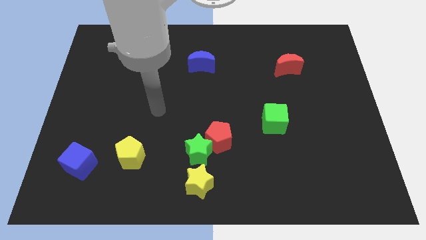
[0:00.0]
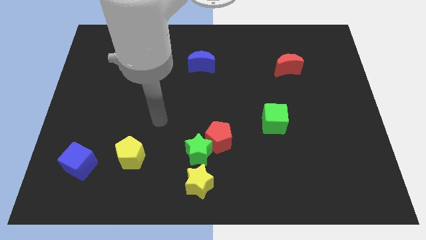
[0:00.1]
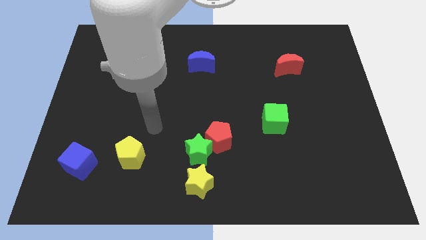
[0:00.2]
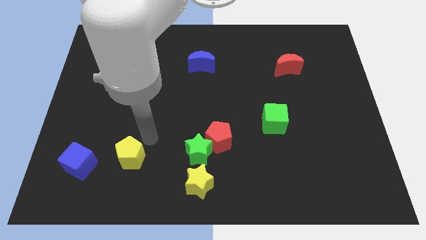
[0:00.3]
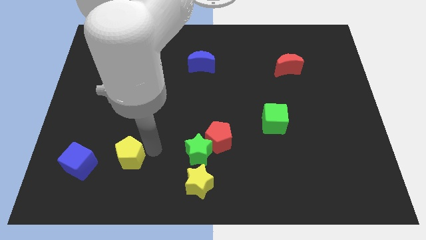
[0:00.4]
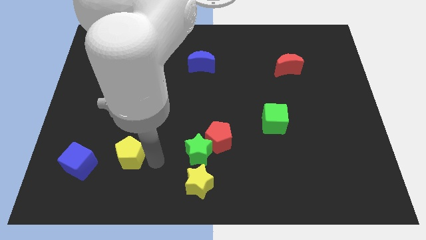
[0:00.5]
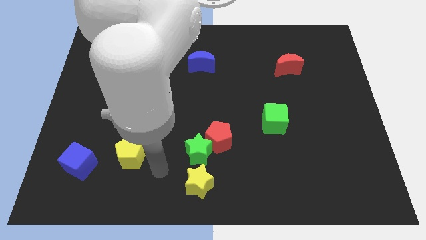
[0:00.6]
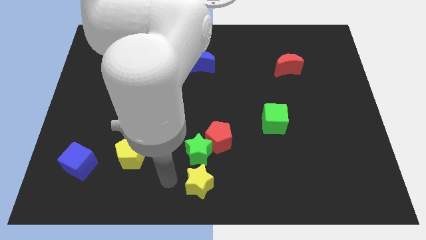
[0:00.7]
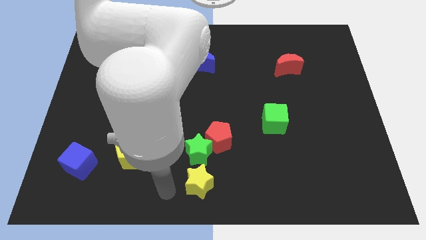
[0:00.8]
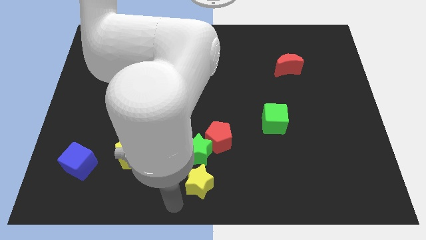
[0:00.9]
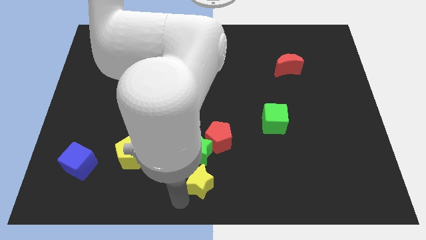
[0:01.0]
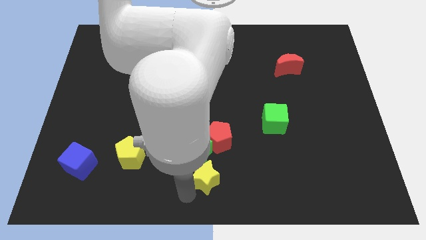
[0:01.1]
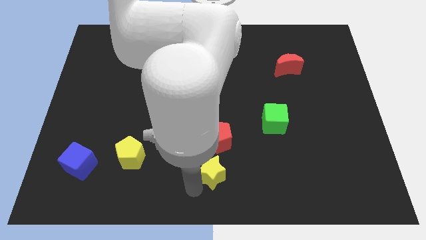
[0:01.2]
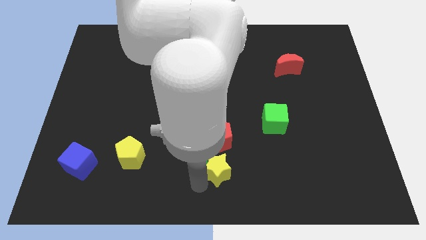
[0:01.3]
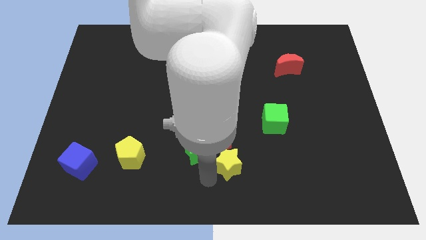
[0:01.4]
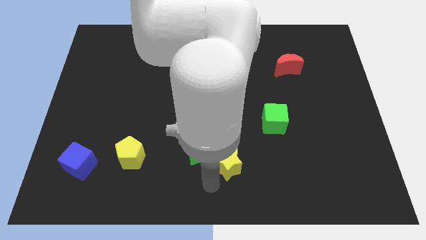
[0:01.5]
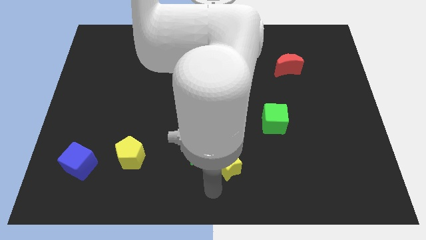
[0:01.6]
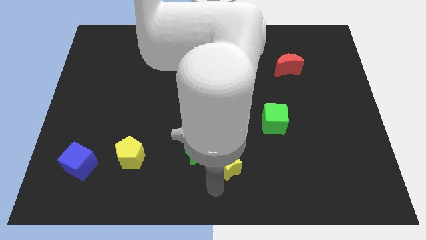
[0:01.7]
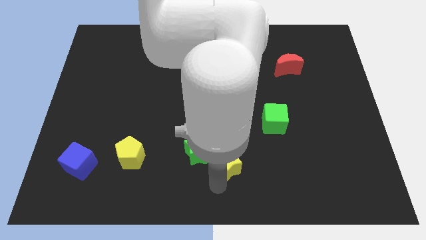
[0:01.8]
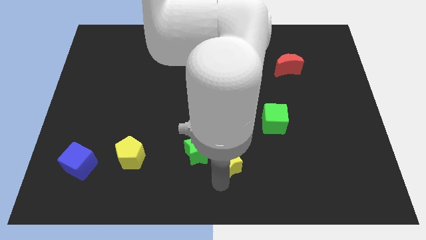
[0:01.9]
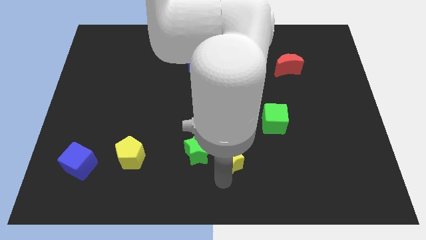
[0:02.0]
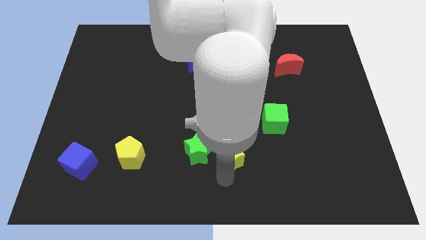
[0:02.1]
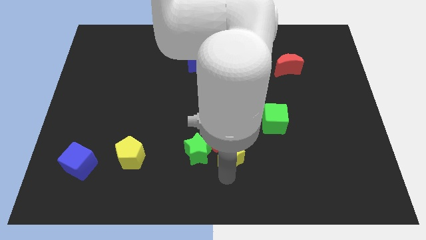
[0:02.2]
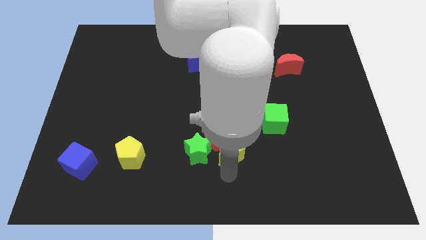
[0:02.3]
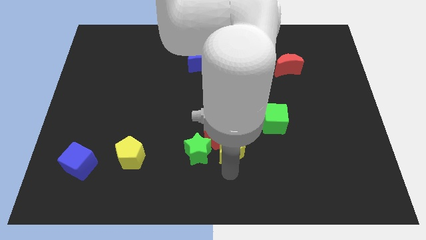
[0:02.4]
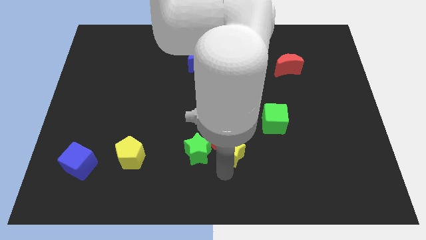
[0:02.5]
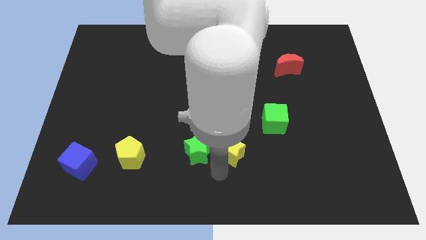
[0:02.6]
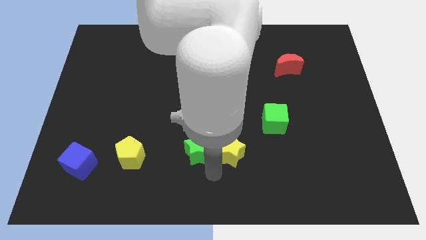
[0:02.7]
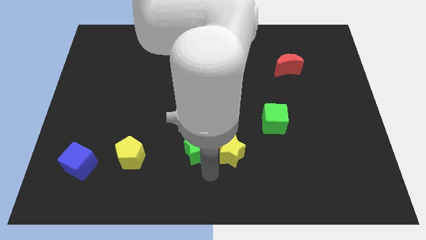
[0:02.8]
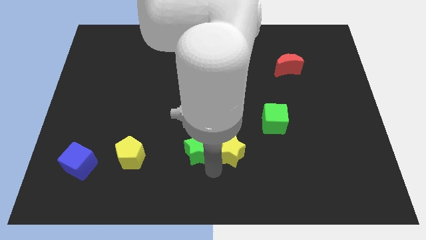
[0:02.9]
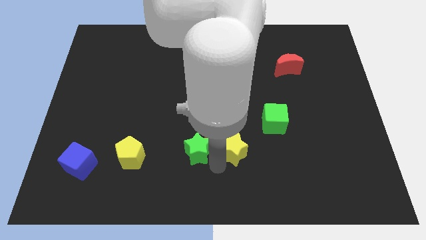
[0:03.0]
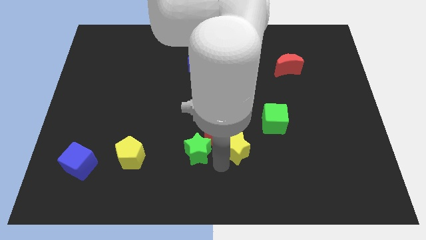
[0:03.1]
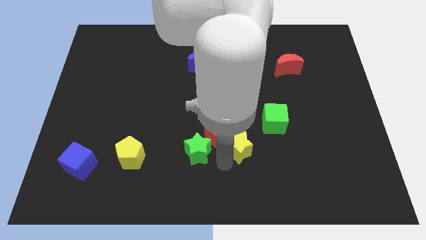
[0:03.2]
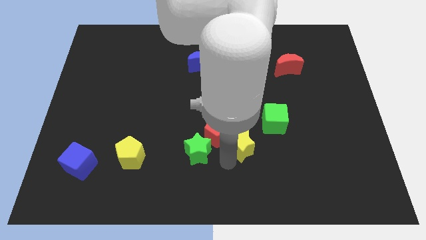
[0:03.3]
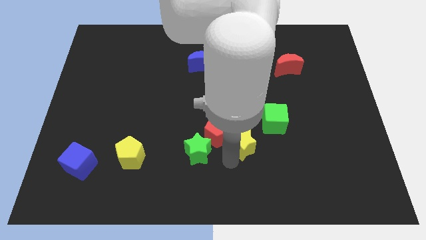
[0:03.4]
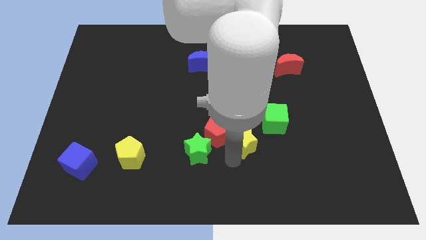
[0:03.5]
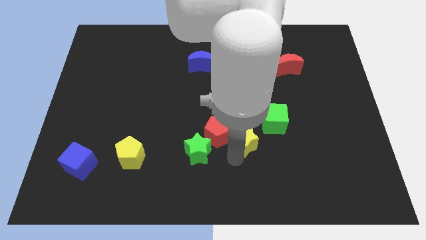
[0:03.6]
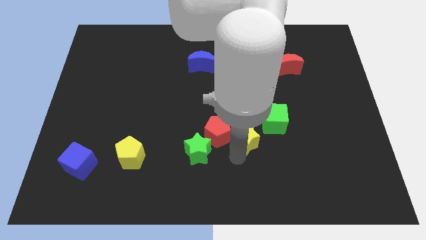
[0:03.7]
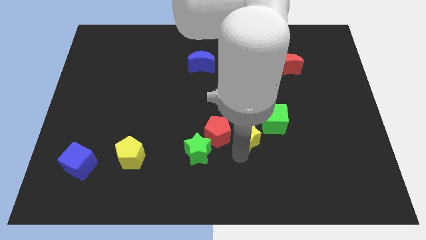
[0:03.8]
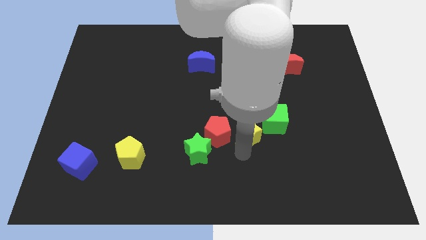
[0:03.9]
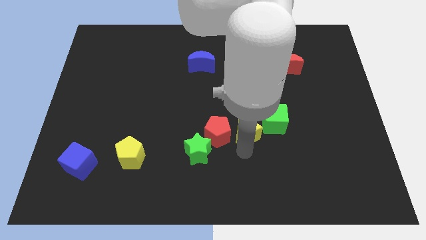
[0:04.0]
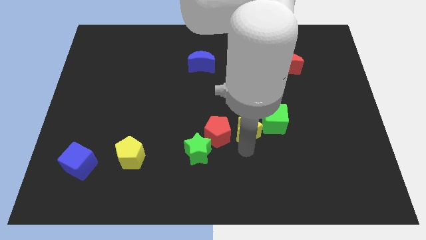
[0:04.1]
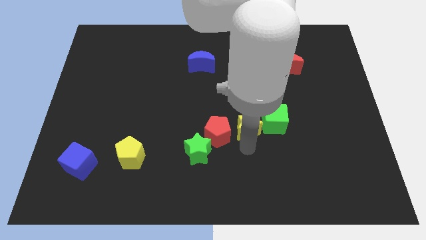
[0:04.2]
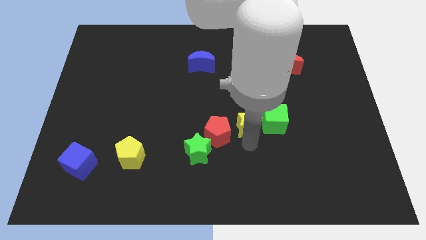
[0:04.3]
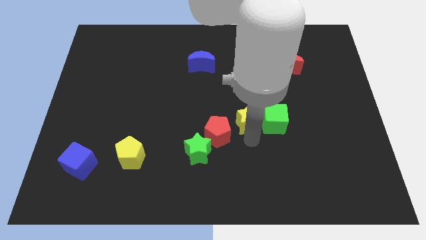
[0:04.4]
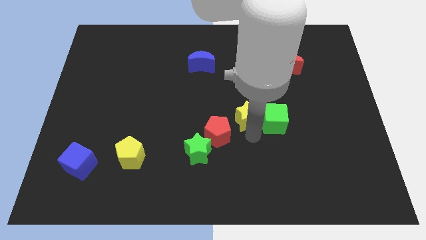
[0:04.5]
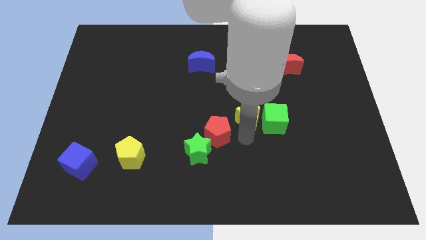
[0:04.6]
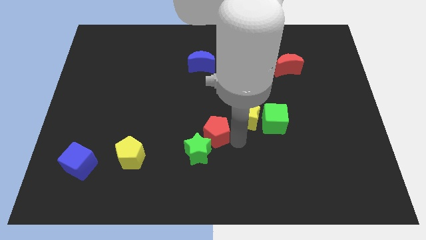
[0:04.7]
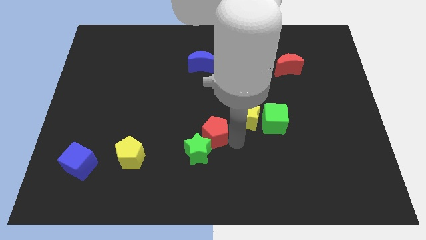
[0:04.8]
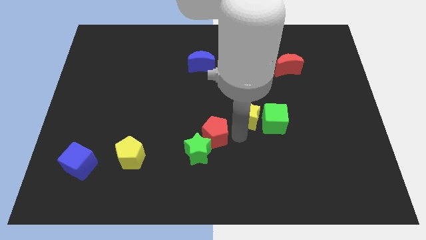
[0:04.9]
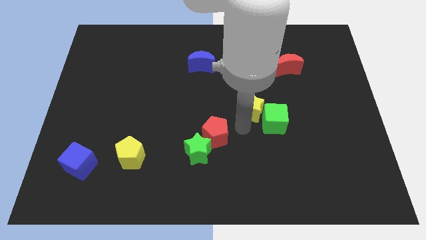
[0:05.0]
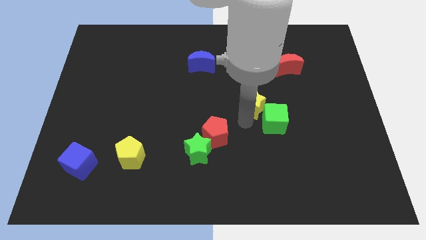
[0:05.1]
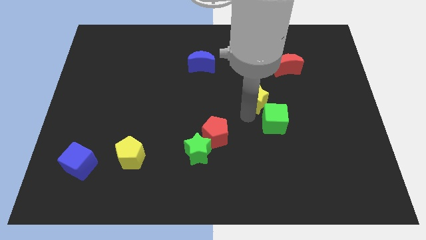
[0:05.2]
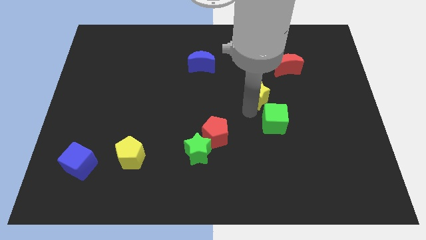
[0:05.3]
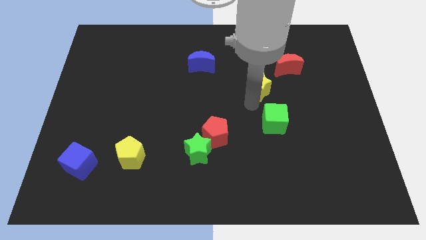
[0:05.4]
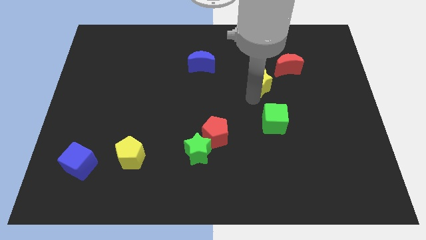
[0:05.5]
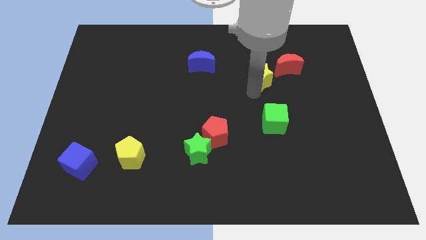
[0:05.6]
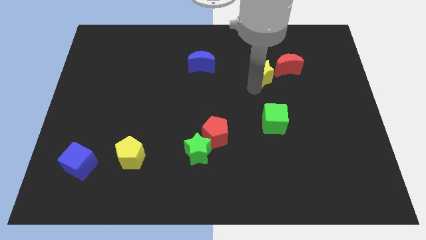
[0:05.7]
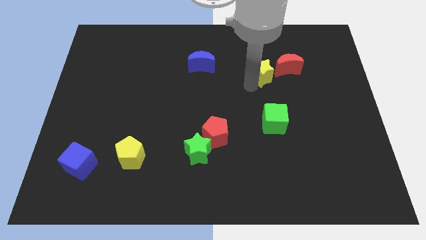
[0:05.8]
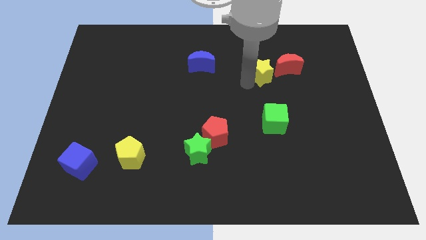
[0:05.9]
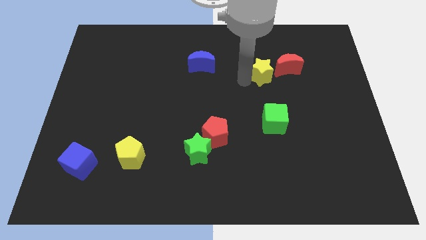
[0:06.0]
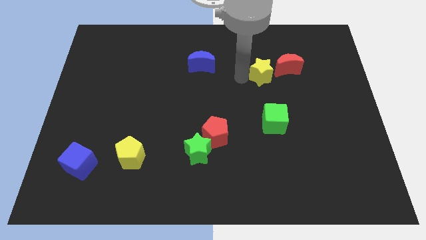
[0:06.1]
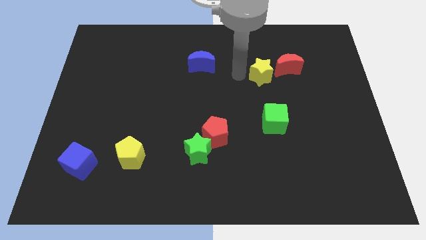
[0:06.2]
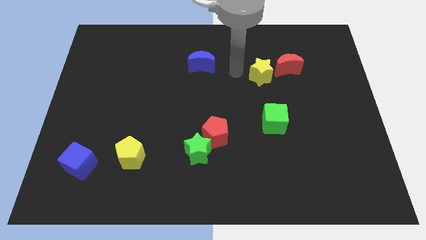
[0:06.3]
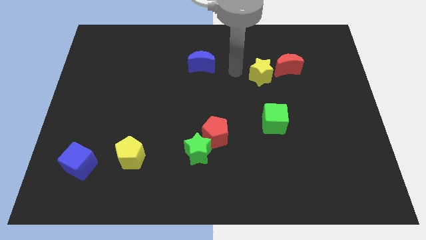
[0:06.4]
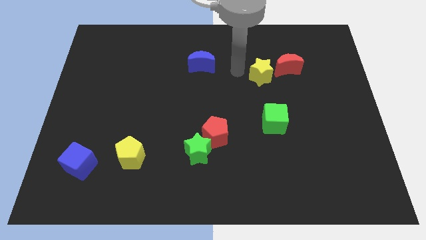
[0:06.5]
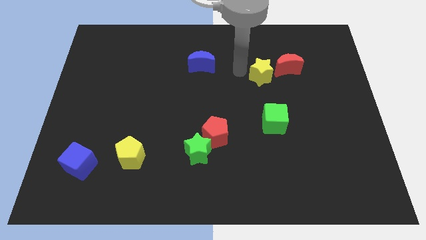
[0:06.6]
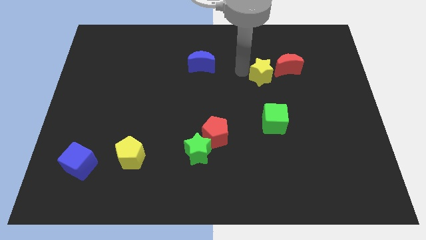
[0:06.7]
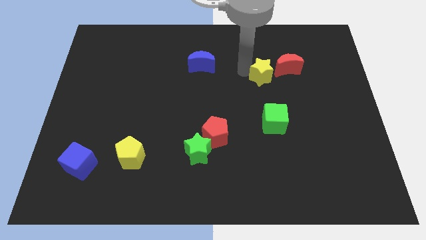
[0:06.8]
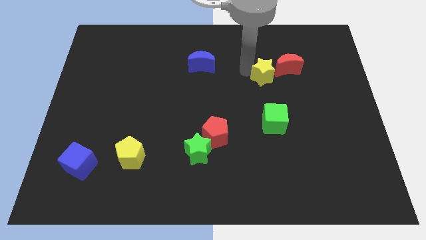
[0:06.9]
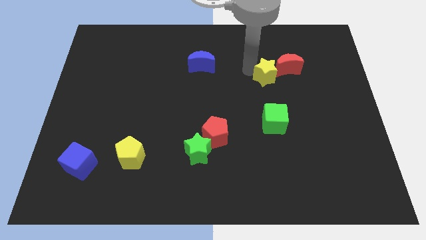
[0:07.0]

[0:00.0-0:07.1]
slide the yellow star next to the red moon

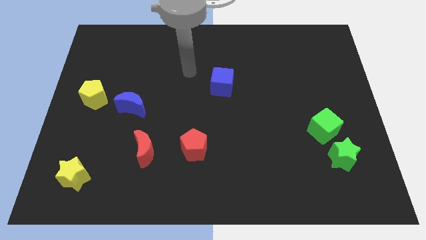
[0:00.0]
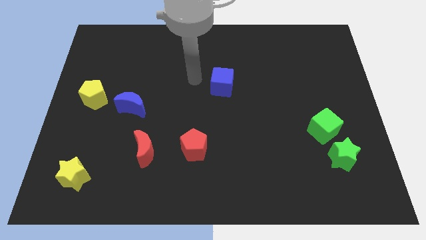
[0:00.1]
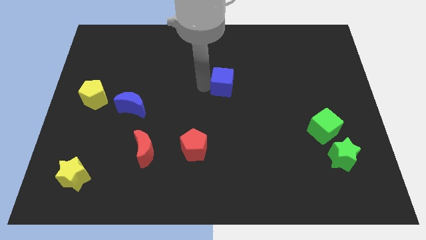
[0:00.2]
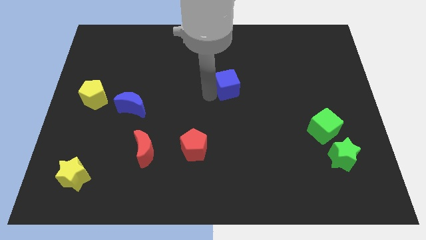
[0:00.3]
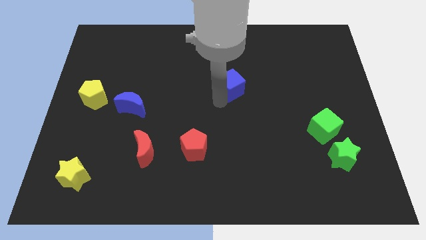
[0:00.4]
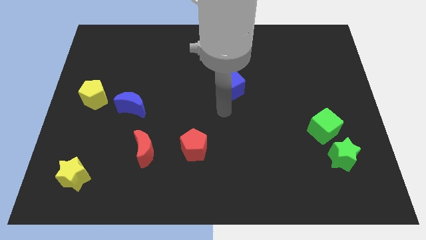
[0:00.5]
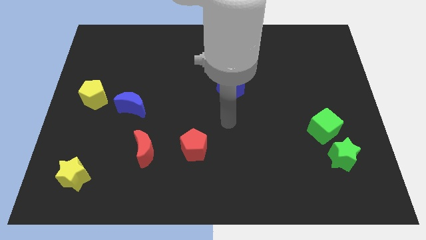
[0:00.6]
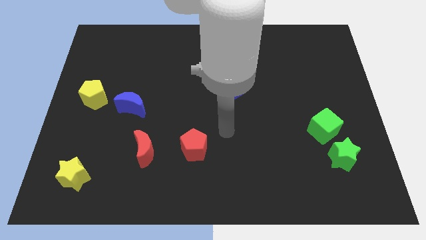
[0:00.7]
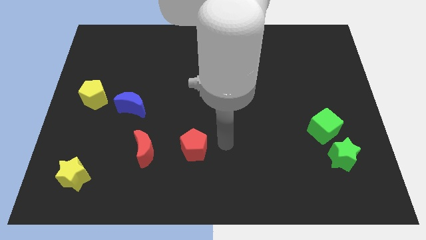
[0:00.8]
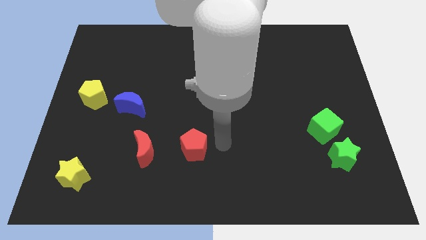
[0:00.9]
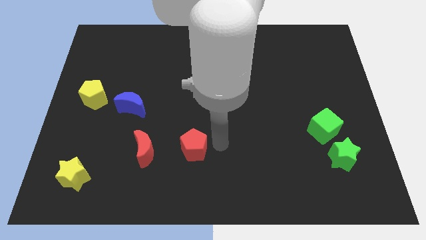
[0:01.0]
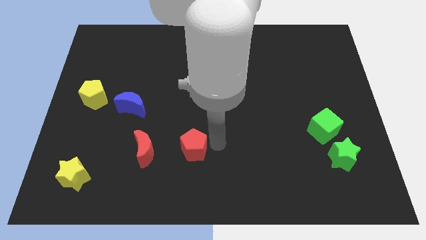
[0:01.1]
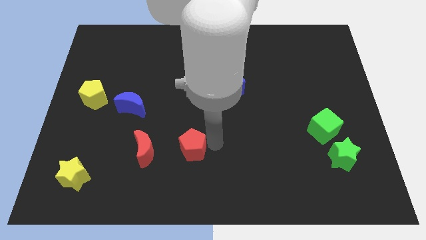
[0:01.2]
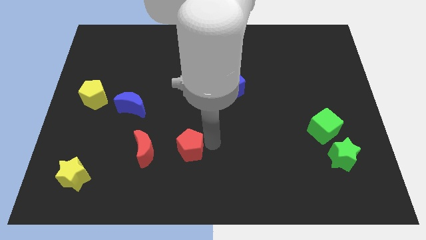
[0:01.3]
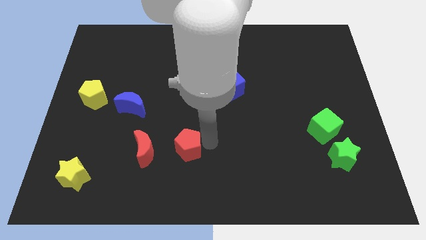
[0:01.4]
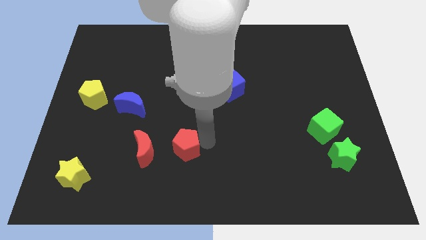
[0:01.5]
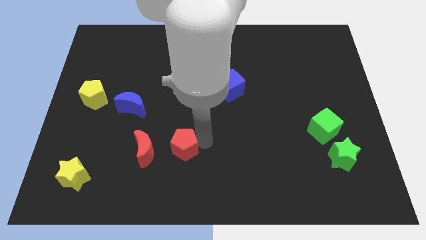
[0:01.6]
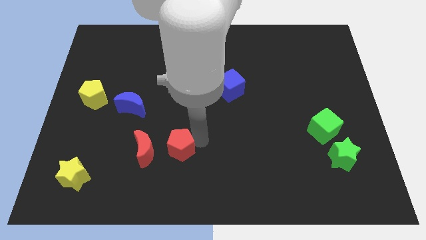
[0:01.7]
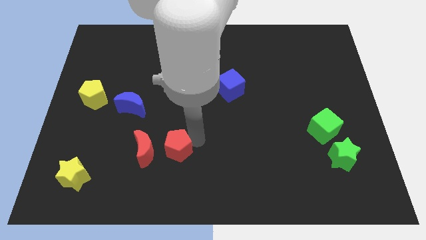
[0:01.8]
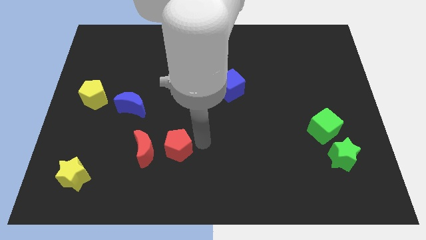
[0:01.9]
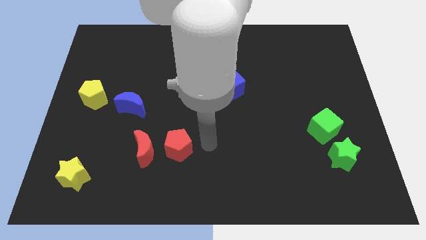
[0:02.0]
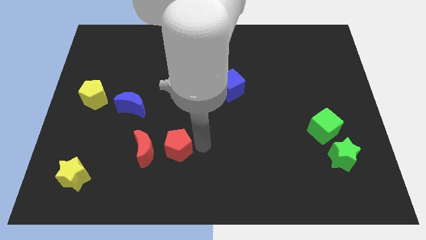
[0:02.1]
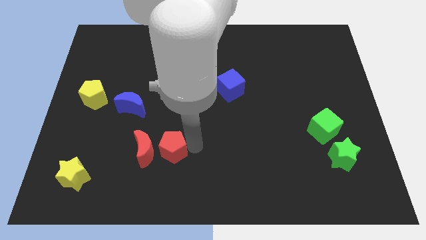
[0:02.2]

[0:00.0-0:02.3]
push the red pentagon close to the red moon
